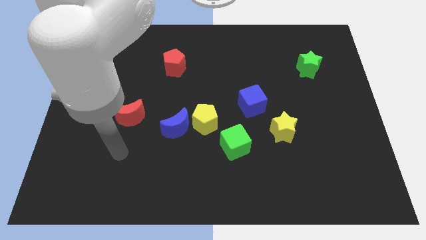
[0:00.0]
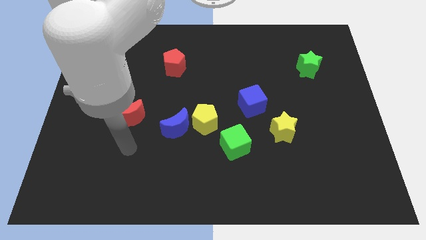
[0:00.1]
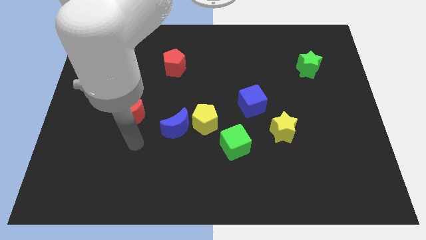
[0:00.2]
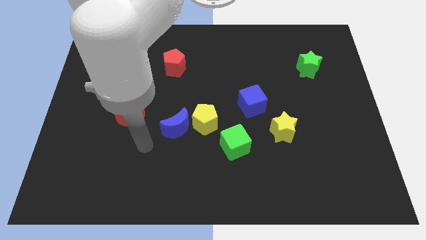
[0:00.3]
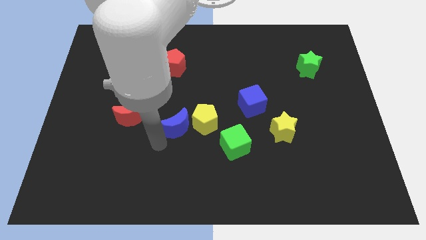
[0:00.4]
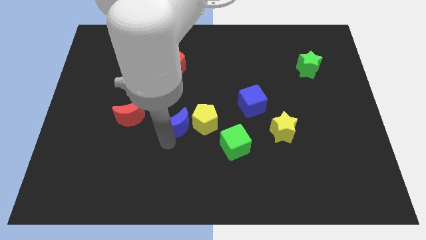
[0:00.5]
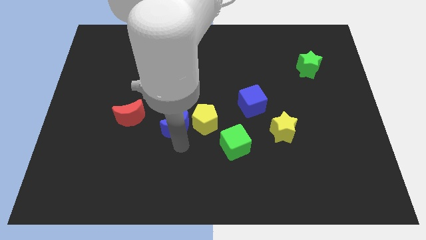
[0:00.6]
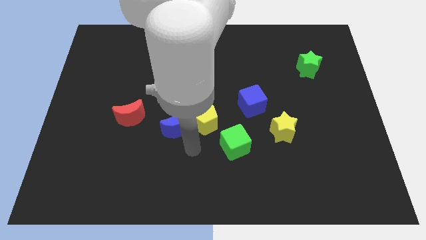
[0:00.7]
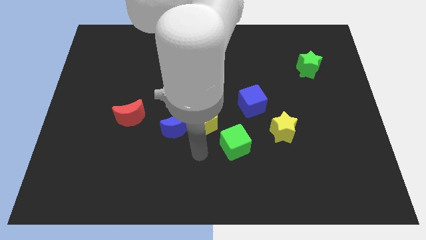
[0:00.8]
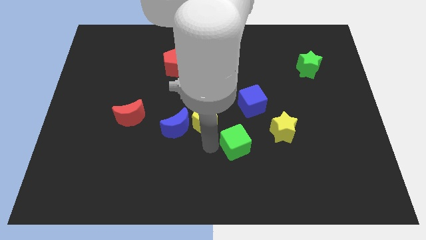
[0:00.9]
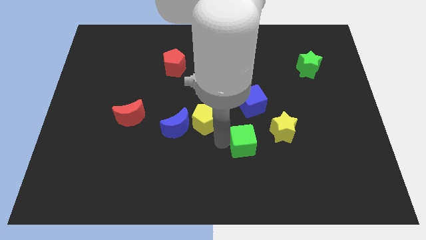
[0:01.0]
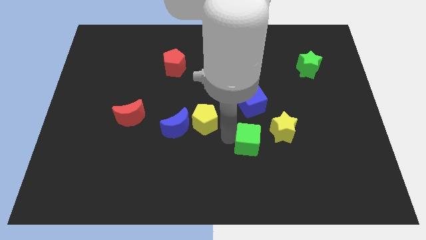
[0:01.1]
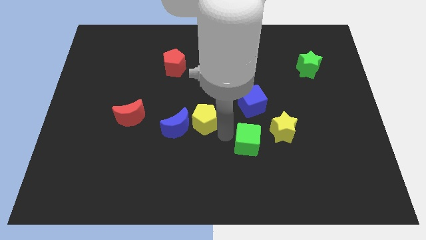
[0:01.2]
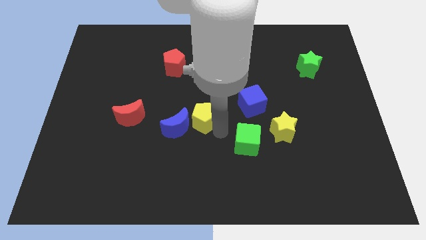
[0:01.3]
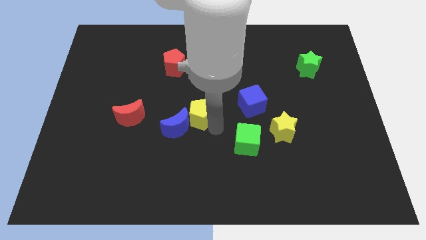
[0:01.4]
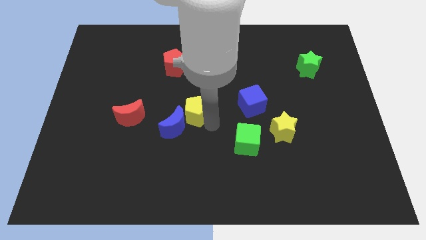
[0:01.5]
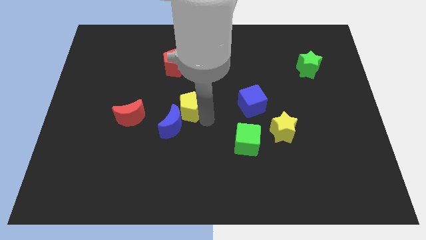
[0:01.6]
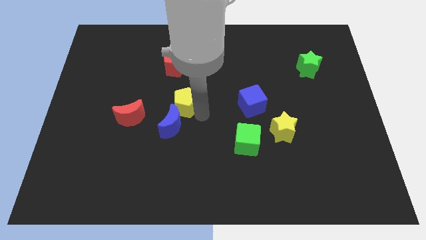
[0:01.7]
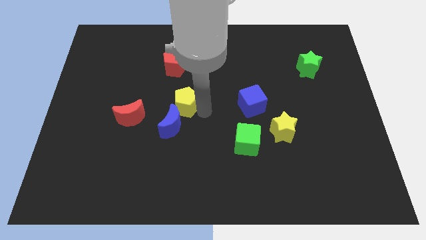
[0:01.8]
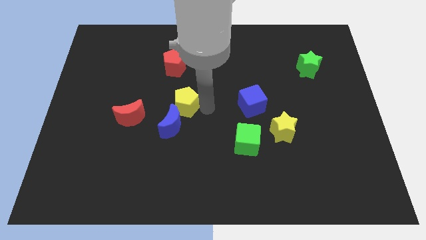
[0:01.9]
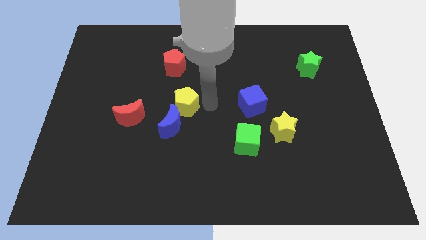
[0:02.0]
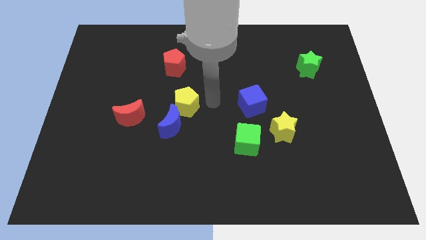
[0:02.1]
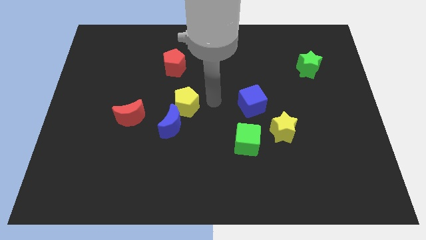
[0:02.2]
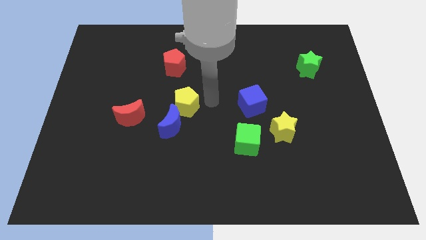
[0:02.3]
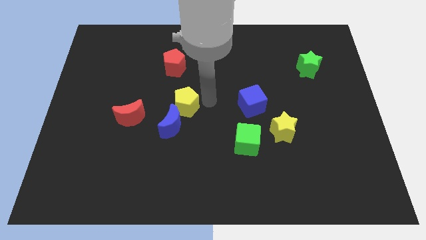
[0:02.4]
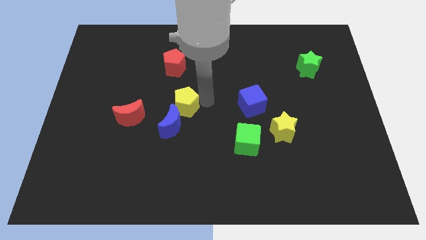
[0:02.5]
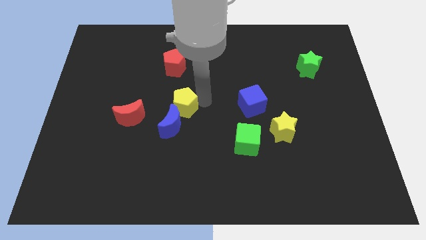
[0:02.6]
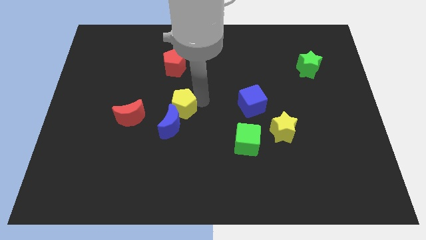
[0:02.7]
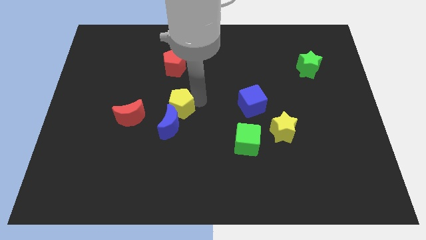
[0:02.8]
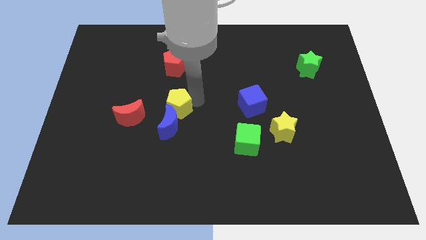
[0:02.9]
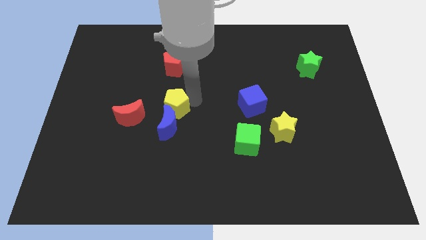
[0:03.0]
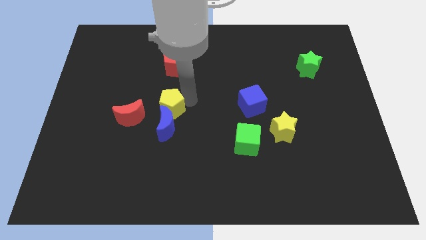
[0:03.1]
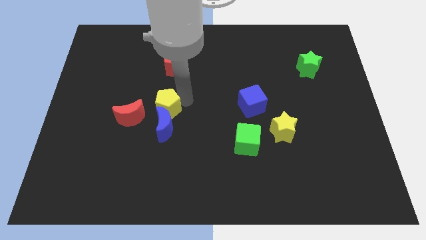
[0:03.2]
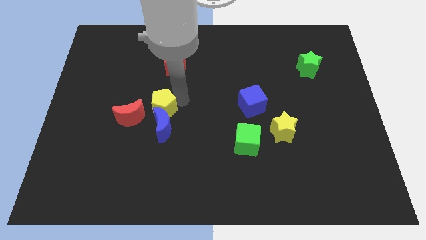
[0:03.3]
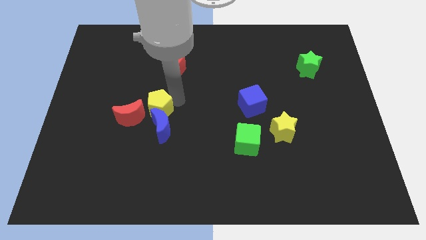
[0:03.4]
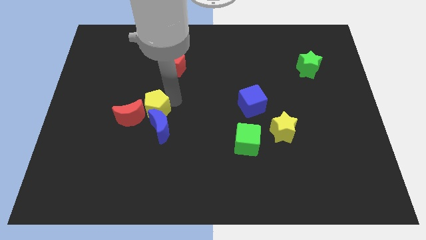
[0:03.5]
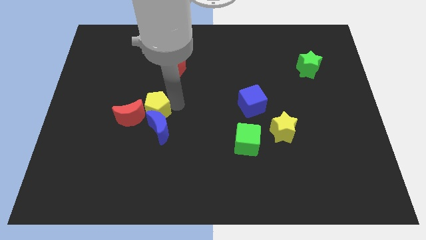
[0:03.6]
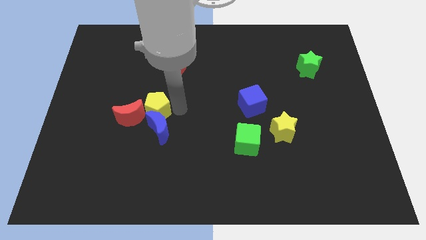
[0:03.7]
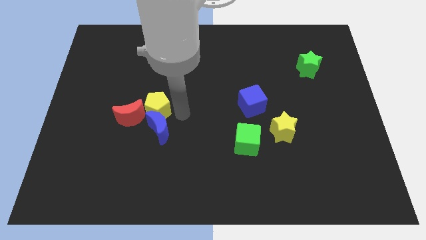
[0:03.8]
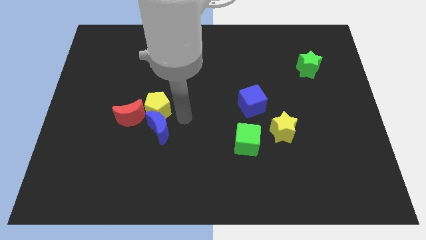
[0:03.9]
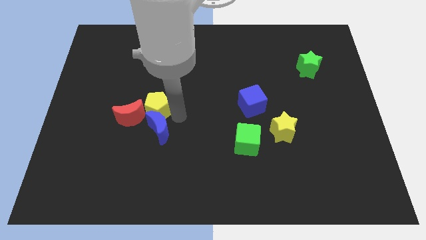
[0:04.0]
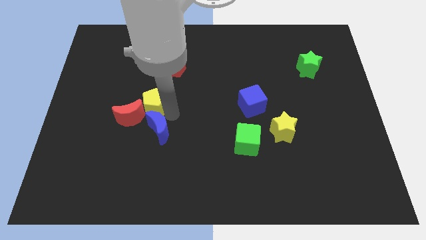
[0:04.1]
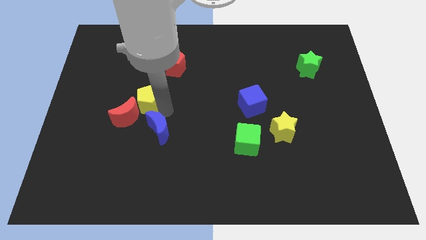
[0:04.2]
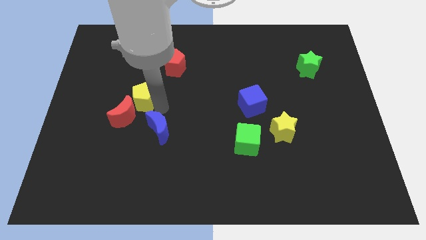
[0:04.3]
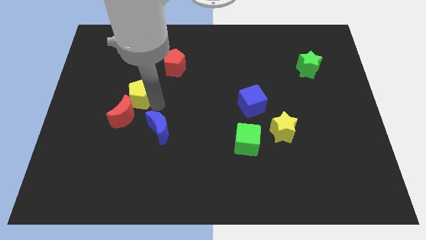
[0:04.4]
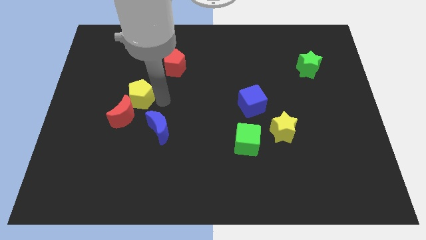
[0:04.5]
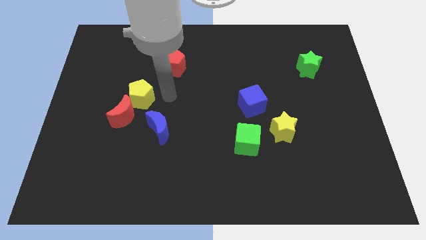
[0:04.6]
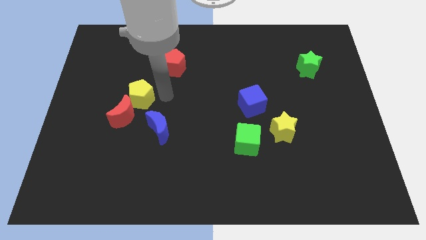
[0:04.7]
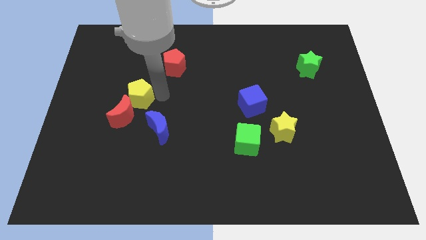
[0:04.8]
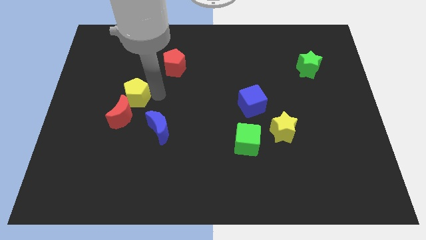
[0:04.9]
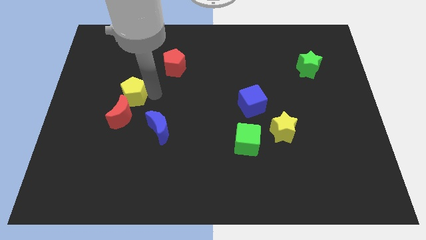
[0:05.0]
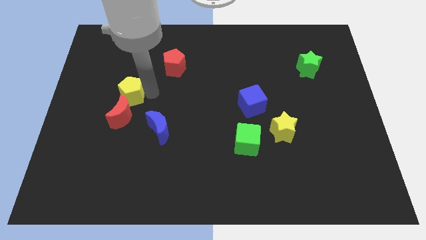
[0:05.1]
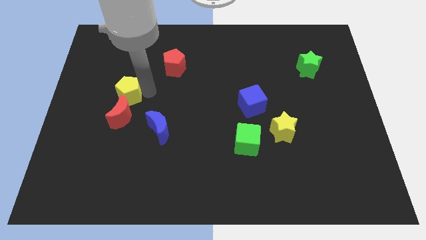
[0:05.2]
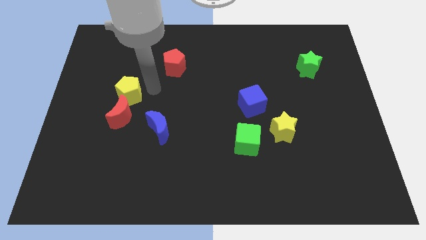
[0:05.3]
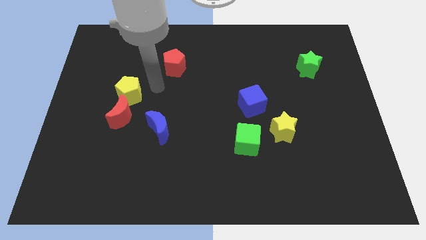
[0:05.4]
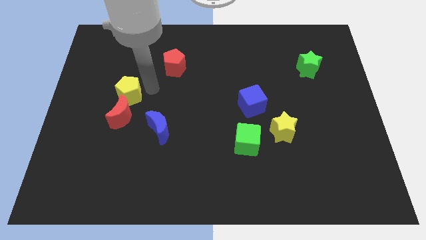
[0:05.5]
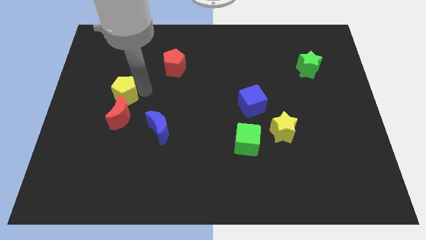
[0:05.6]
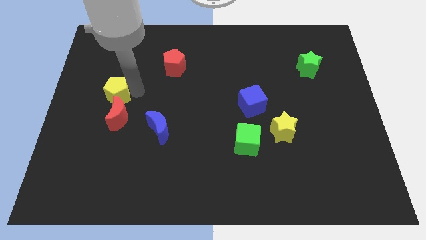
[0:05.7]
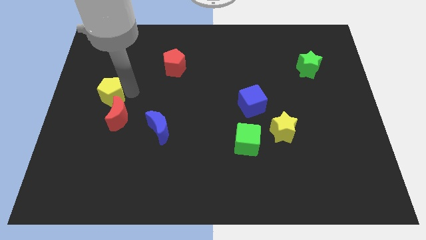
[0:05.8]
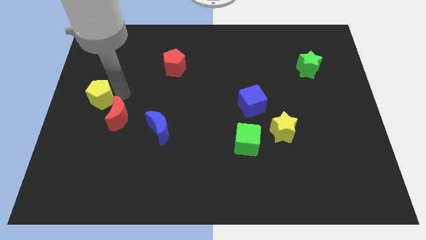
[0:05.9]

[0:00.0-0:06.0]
slide the yellow pentagon to the left side of the board

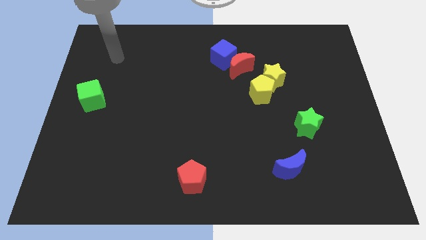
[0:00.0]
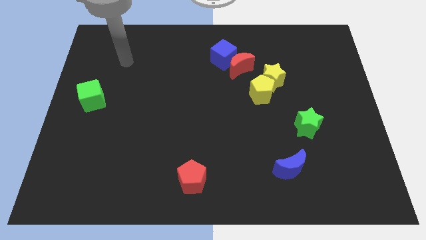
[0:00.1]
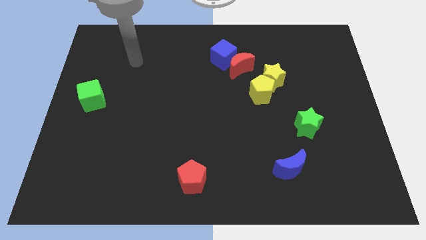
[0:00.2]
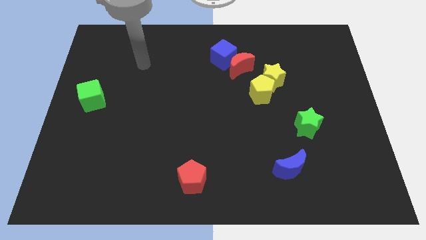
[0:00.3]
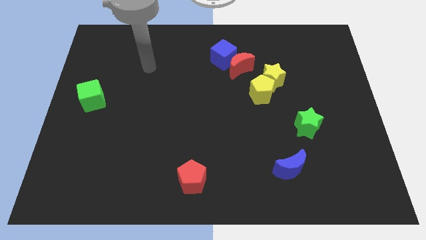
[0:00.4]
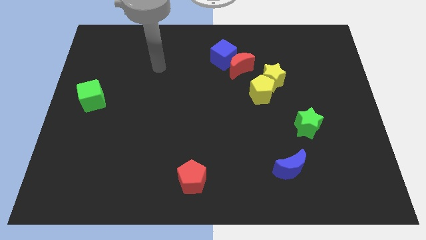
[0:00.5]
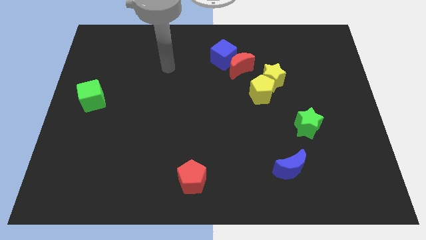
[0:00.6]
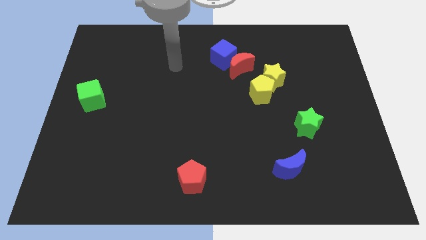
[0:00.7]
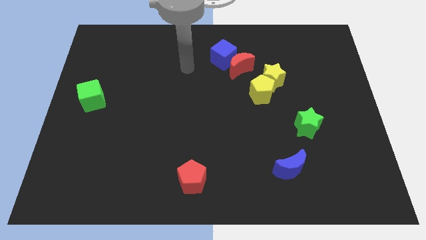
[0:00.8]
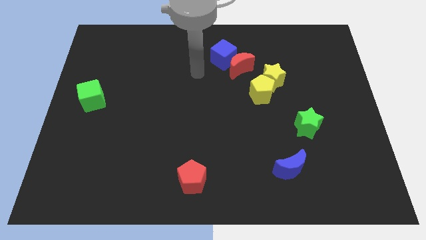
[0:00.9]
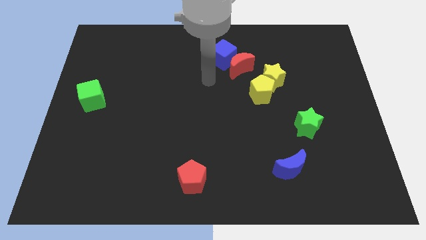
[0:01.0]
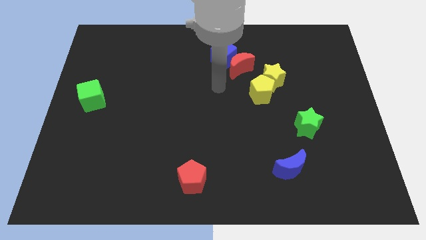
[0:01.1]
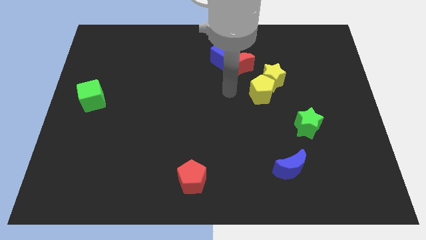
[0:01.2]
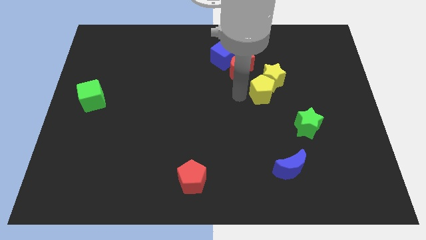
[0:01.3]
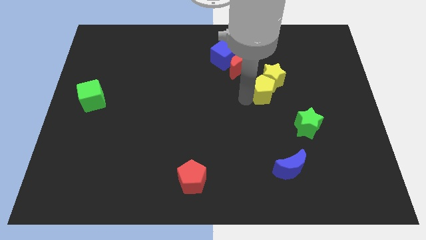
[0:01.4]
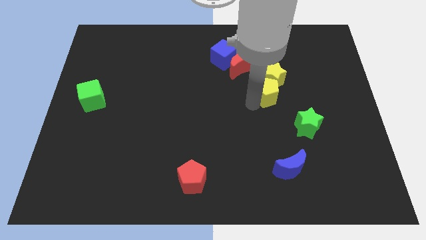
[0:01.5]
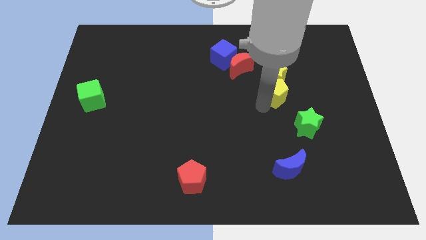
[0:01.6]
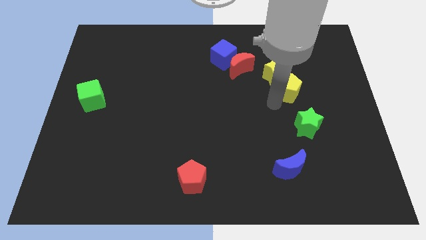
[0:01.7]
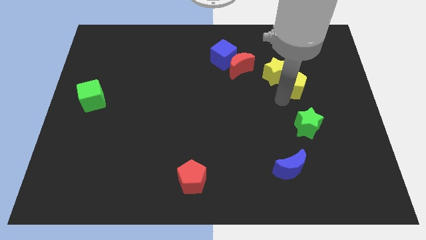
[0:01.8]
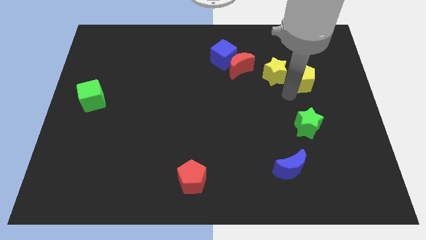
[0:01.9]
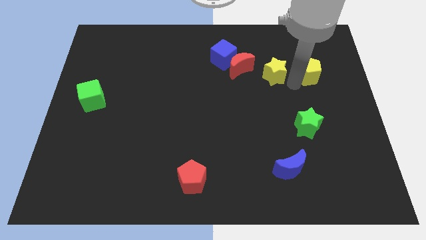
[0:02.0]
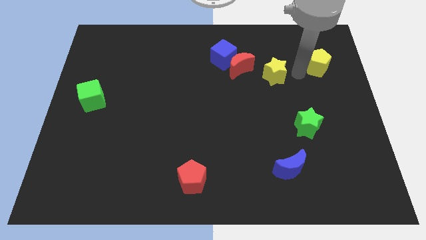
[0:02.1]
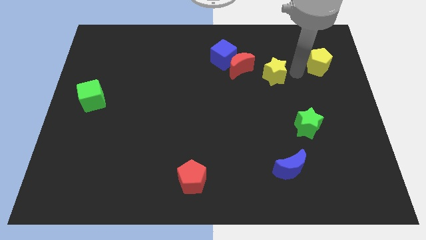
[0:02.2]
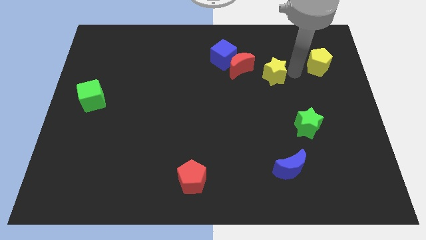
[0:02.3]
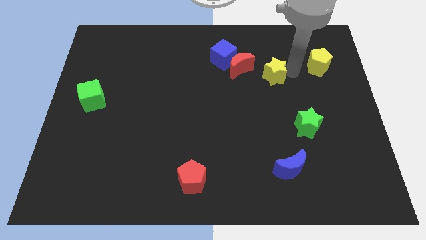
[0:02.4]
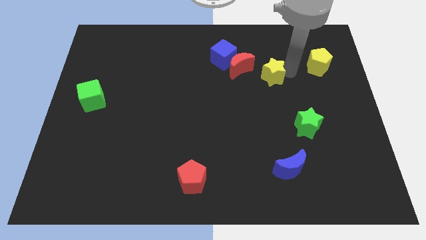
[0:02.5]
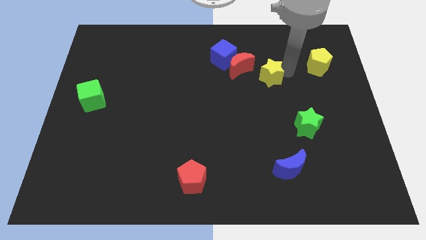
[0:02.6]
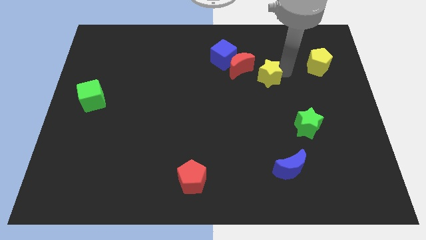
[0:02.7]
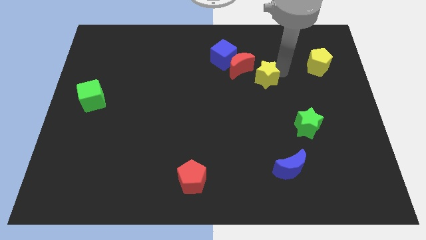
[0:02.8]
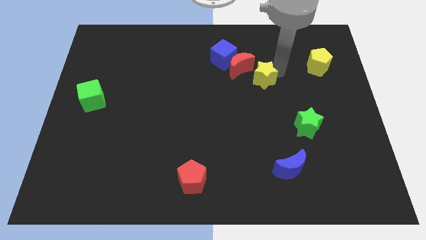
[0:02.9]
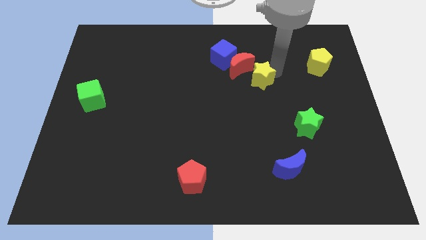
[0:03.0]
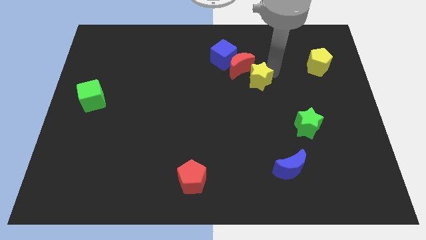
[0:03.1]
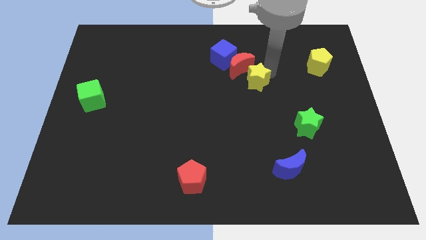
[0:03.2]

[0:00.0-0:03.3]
move the yellow star to the center of the board
